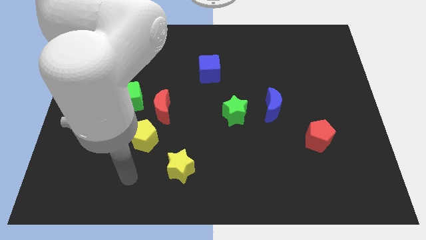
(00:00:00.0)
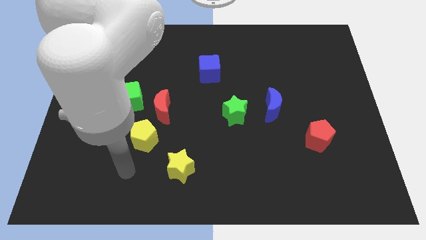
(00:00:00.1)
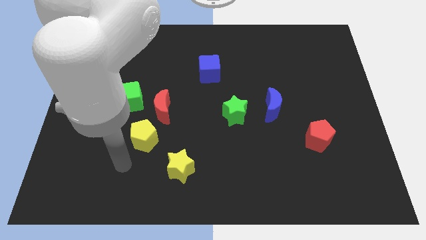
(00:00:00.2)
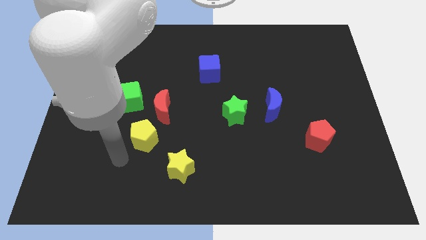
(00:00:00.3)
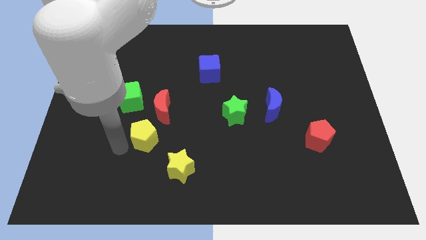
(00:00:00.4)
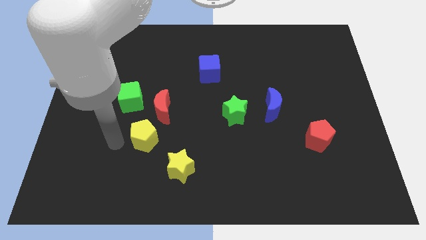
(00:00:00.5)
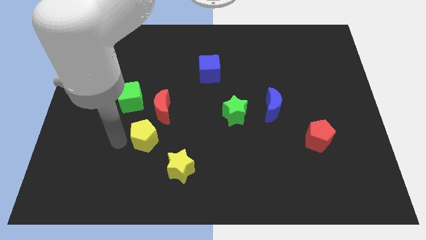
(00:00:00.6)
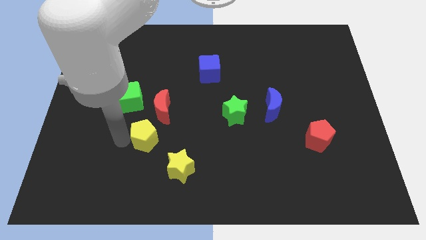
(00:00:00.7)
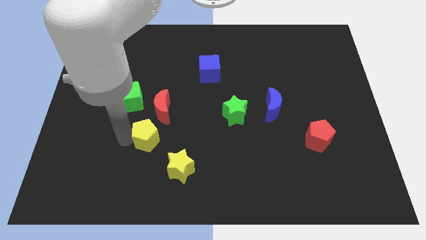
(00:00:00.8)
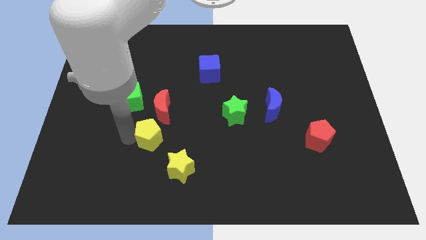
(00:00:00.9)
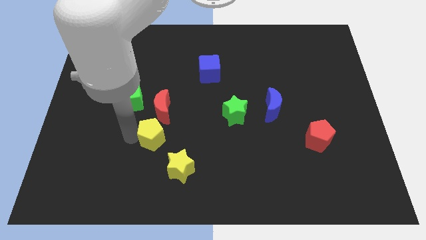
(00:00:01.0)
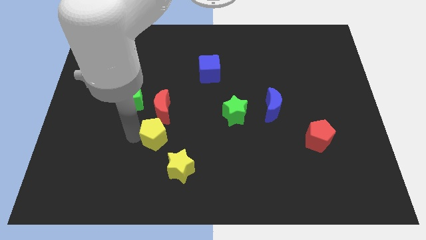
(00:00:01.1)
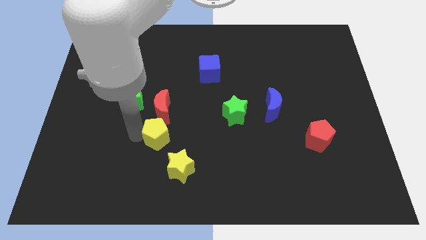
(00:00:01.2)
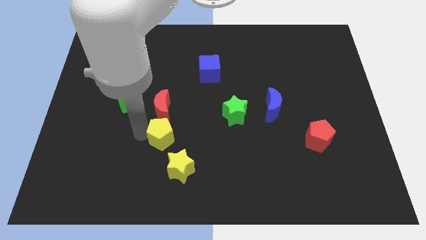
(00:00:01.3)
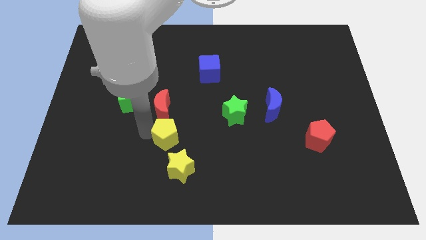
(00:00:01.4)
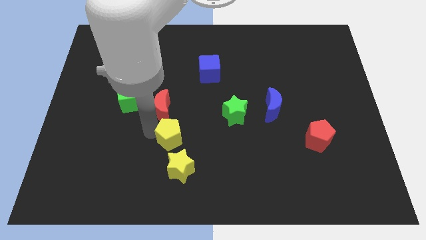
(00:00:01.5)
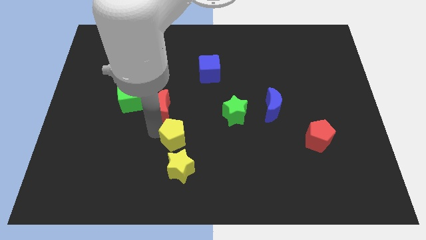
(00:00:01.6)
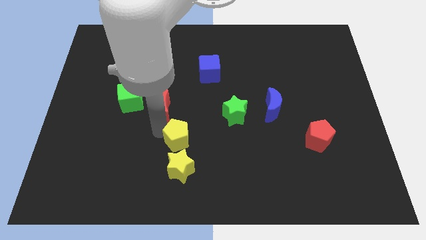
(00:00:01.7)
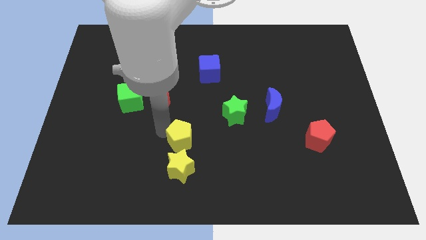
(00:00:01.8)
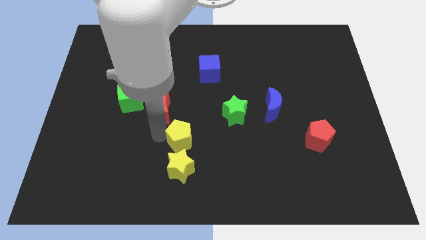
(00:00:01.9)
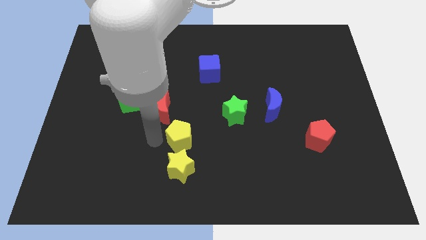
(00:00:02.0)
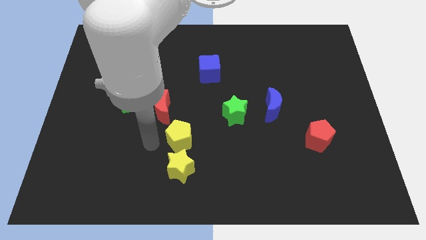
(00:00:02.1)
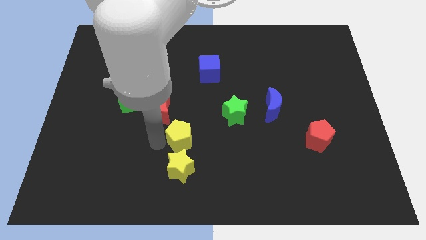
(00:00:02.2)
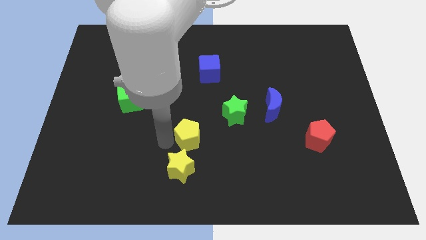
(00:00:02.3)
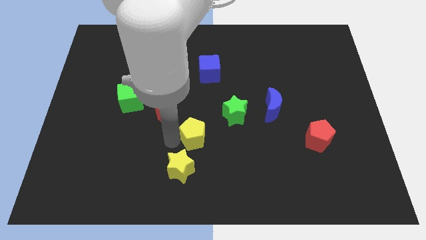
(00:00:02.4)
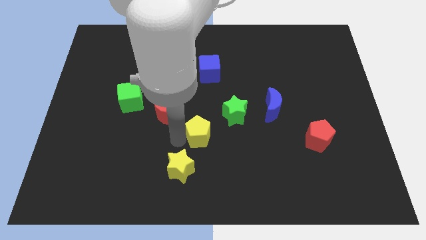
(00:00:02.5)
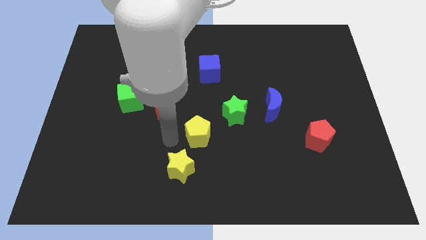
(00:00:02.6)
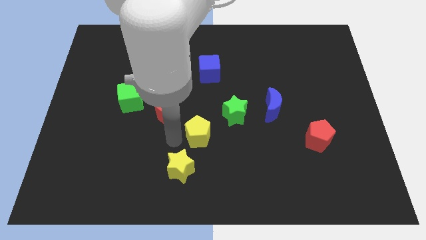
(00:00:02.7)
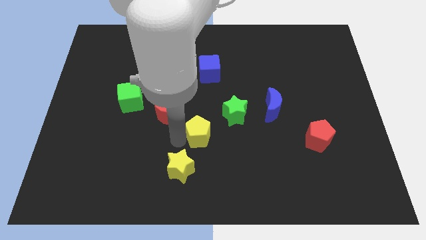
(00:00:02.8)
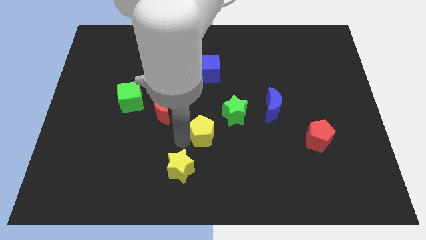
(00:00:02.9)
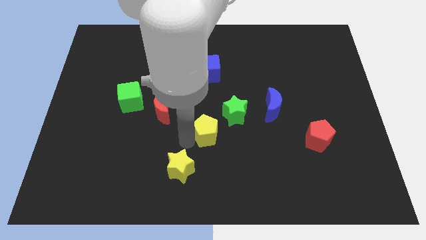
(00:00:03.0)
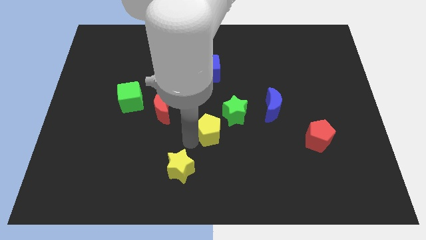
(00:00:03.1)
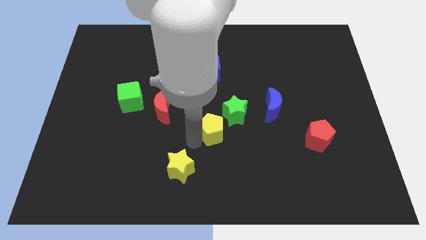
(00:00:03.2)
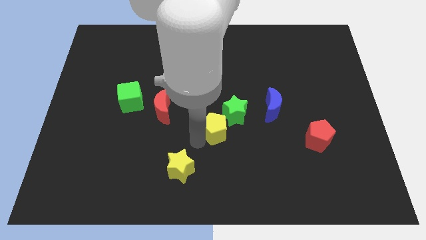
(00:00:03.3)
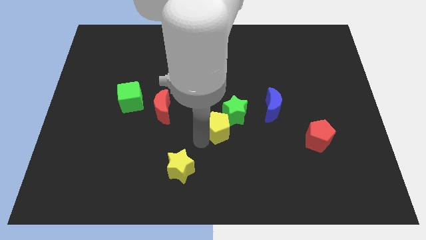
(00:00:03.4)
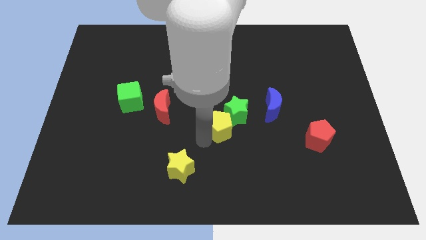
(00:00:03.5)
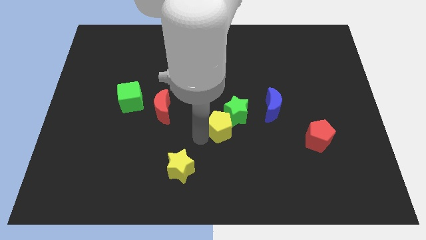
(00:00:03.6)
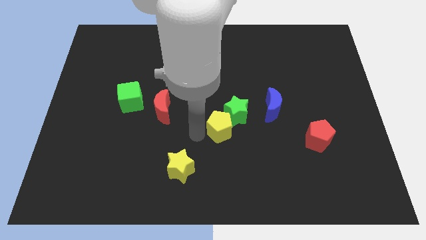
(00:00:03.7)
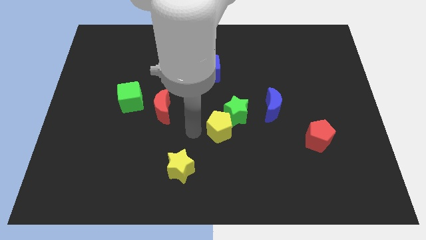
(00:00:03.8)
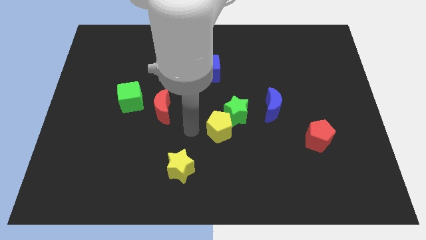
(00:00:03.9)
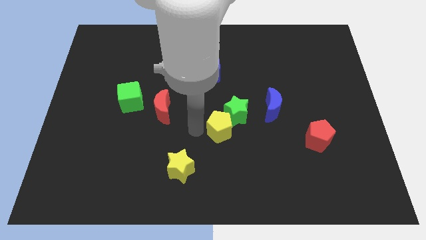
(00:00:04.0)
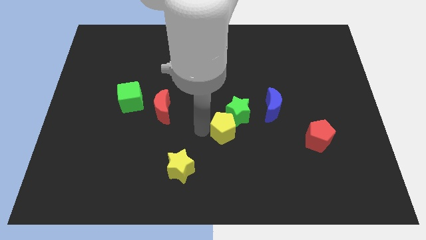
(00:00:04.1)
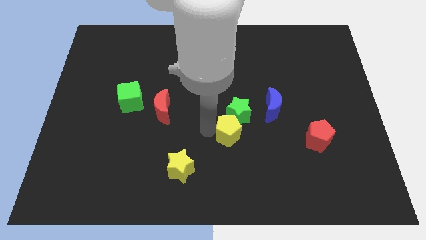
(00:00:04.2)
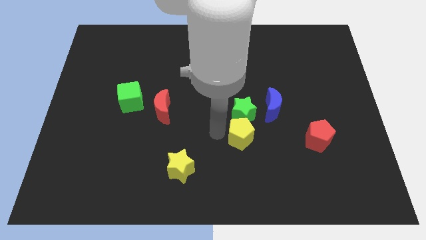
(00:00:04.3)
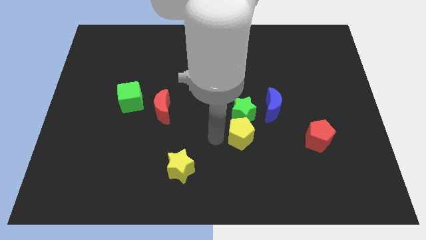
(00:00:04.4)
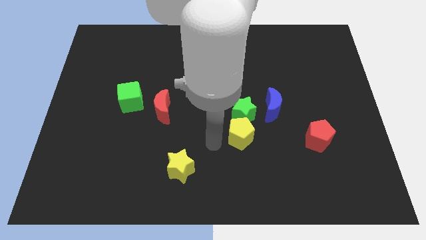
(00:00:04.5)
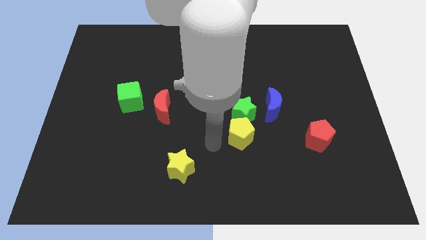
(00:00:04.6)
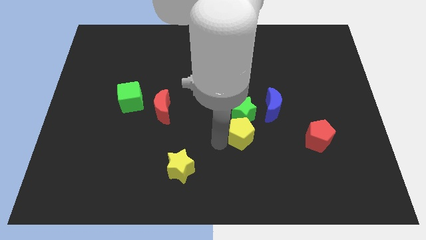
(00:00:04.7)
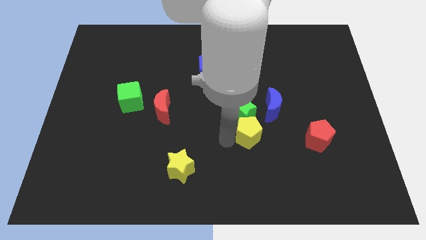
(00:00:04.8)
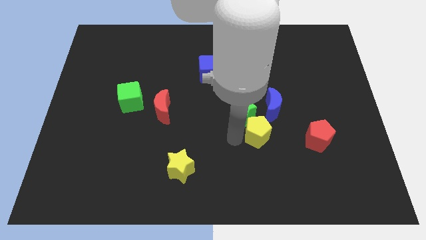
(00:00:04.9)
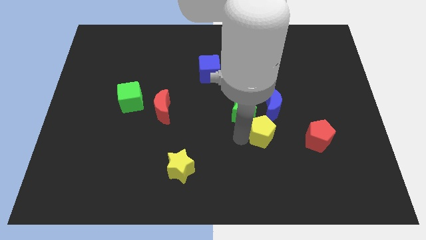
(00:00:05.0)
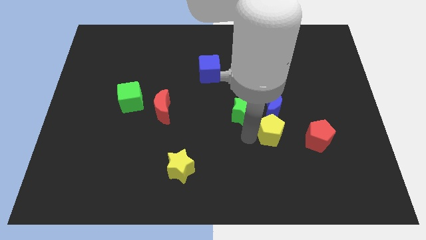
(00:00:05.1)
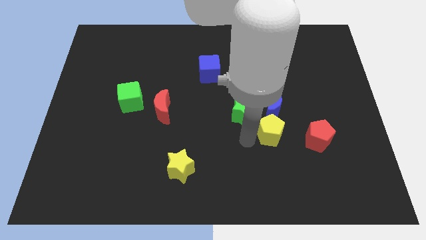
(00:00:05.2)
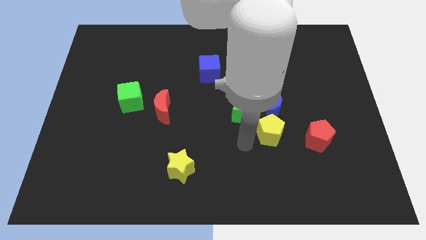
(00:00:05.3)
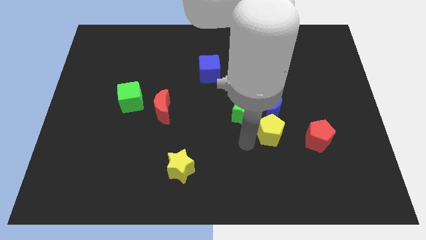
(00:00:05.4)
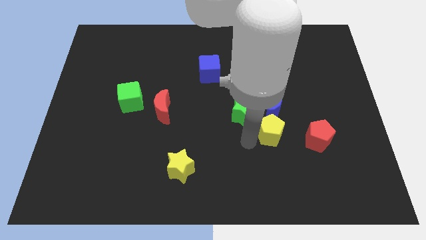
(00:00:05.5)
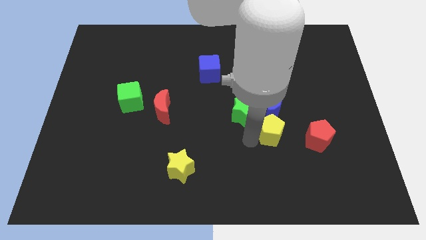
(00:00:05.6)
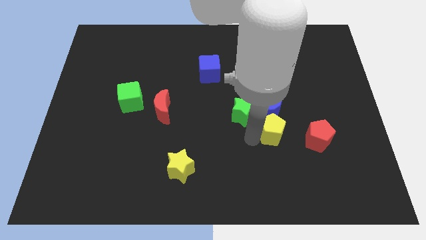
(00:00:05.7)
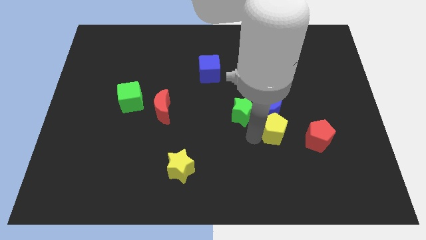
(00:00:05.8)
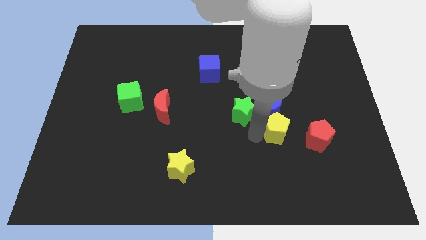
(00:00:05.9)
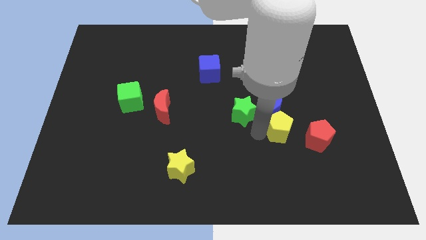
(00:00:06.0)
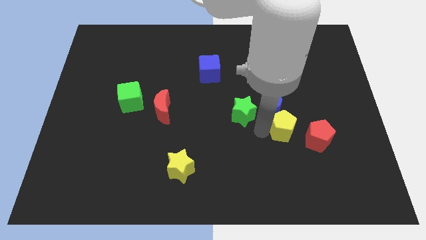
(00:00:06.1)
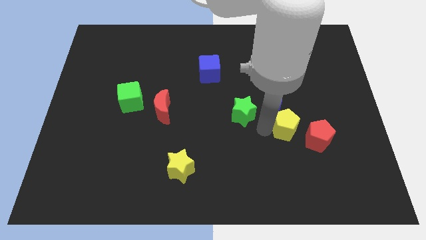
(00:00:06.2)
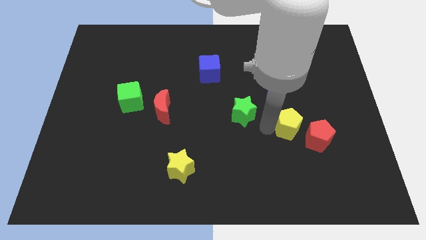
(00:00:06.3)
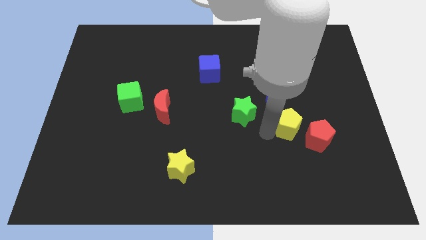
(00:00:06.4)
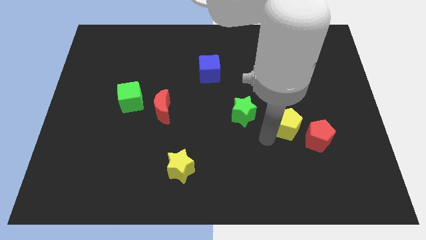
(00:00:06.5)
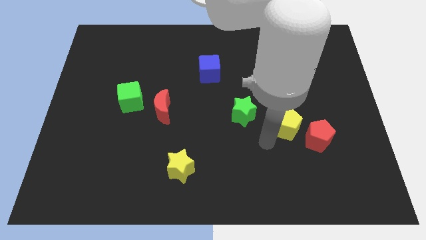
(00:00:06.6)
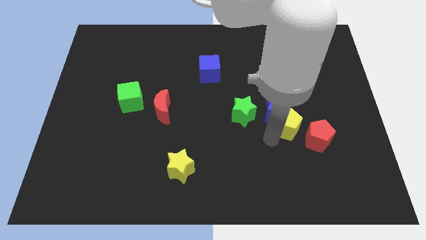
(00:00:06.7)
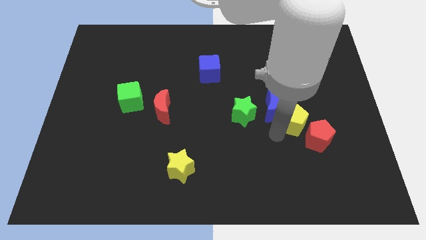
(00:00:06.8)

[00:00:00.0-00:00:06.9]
move the yellow pentagon to the top side of the red pentagon
